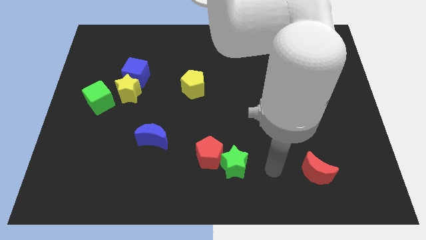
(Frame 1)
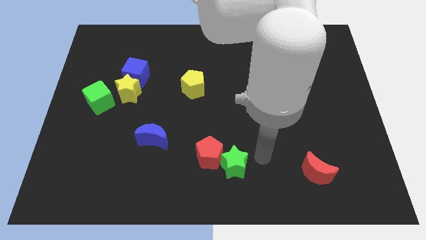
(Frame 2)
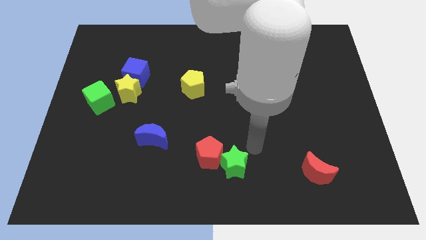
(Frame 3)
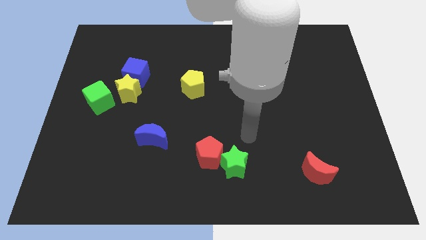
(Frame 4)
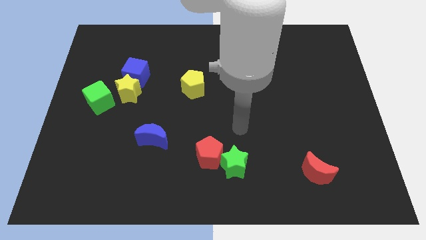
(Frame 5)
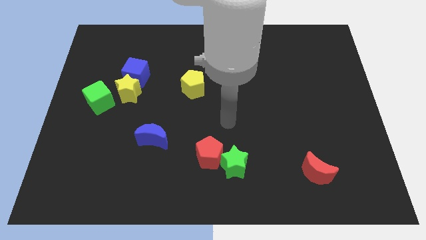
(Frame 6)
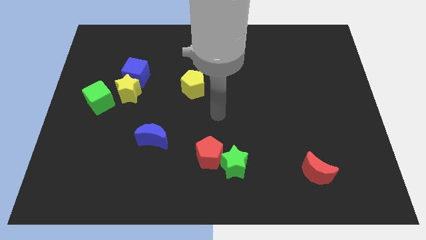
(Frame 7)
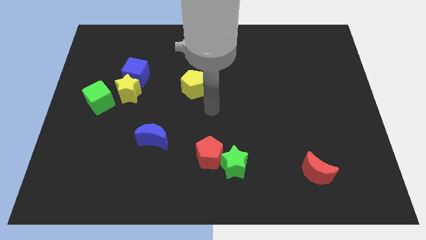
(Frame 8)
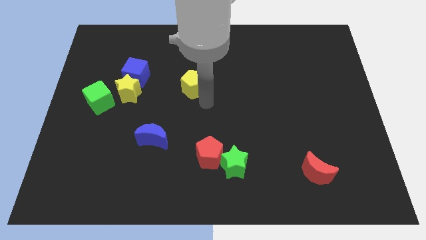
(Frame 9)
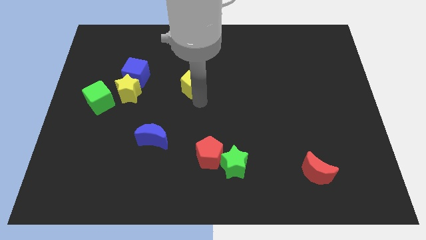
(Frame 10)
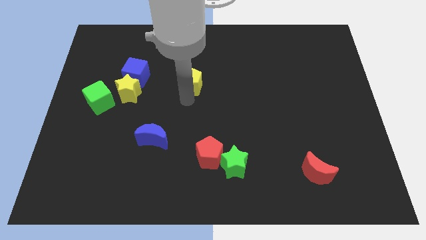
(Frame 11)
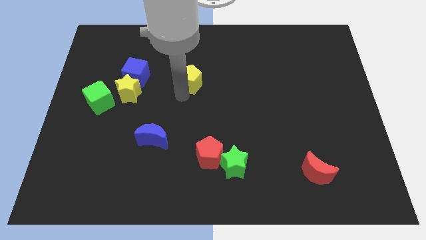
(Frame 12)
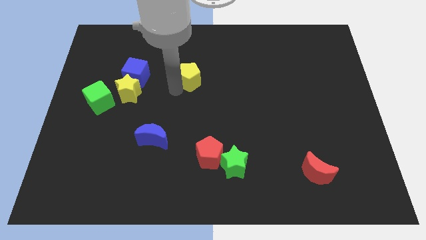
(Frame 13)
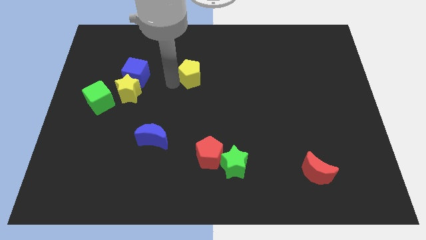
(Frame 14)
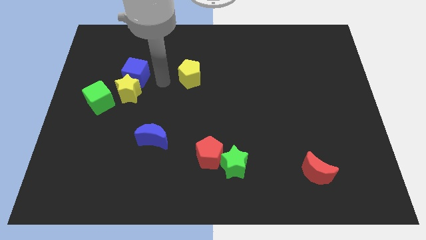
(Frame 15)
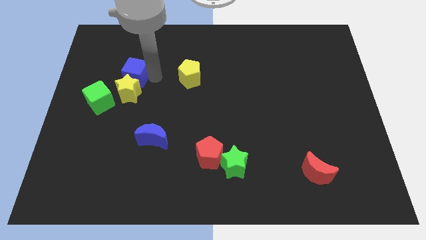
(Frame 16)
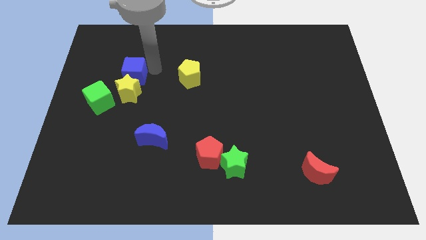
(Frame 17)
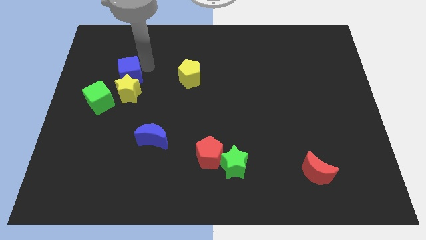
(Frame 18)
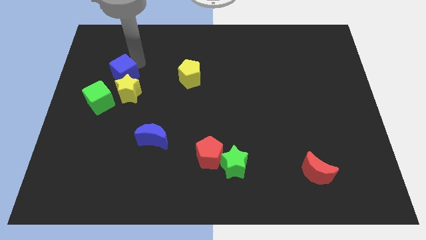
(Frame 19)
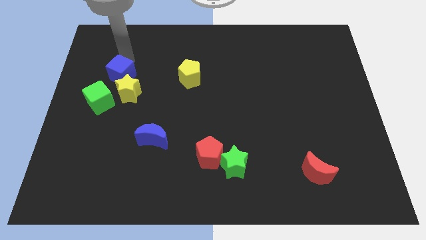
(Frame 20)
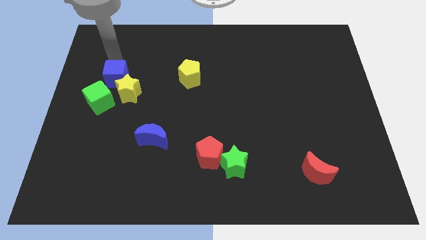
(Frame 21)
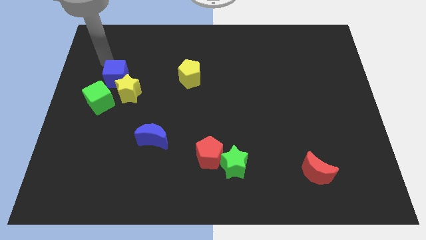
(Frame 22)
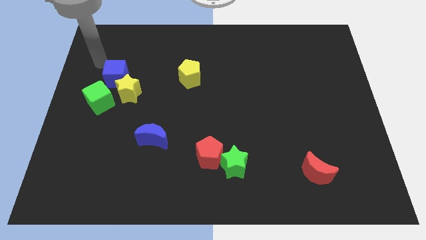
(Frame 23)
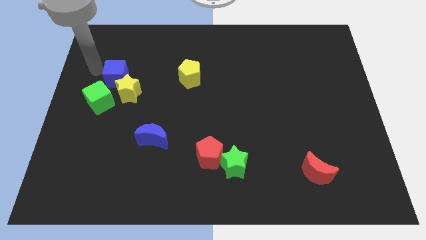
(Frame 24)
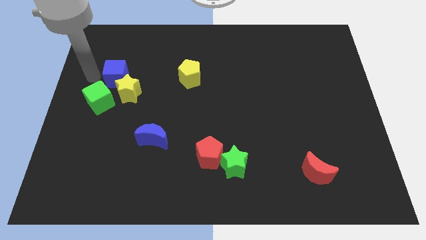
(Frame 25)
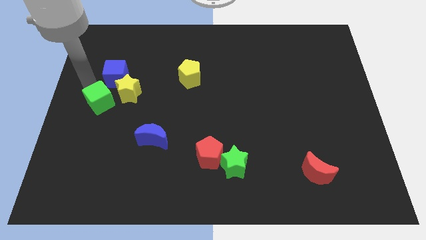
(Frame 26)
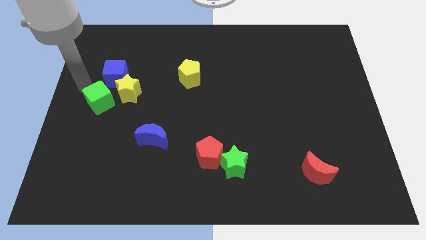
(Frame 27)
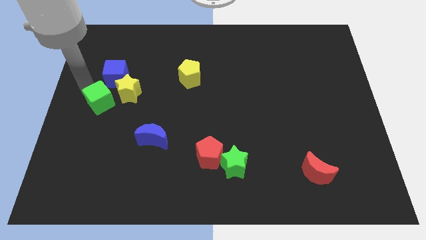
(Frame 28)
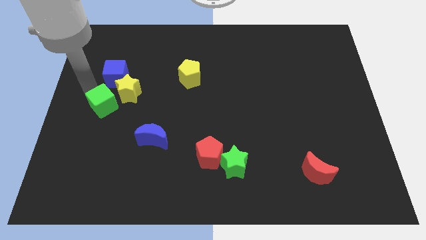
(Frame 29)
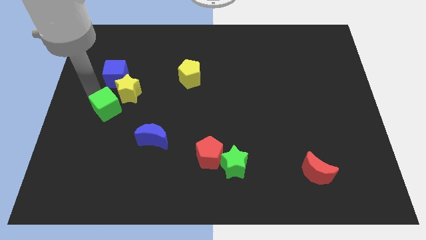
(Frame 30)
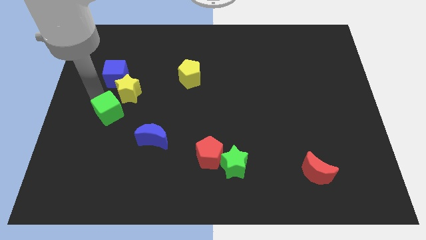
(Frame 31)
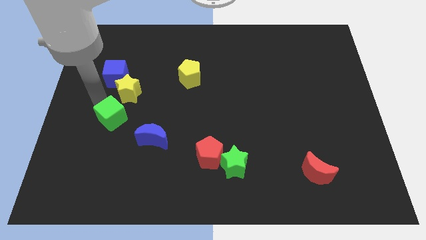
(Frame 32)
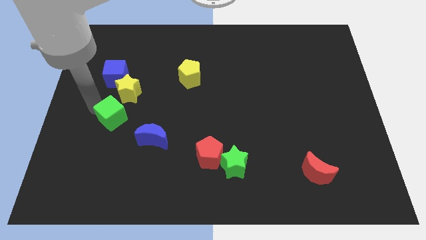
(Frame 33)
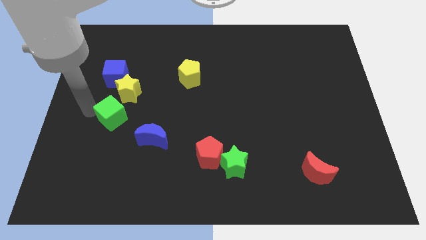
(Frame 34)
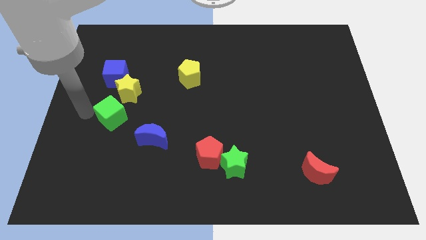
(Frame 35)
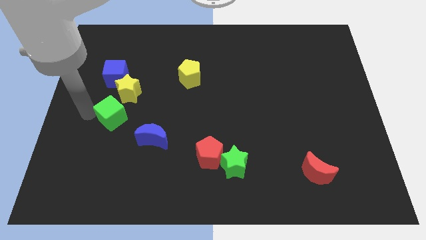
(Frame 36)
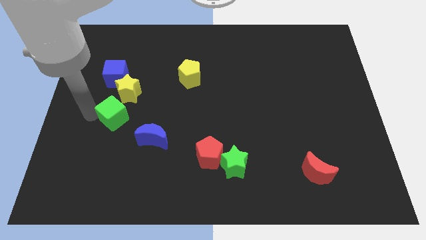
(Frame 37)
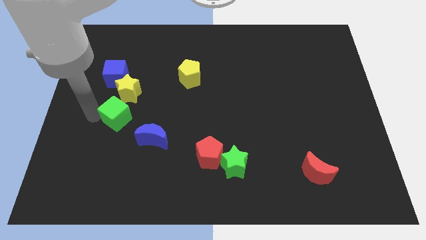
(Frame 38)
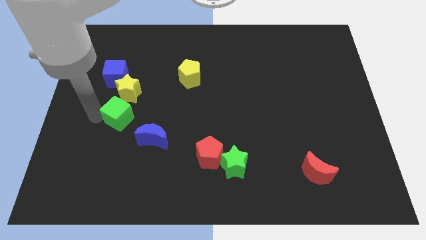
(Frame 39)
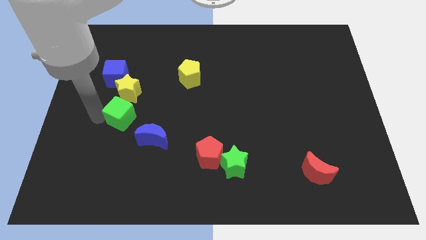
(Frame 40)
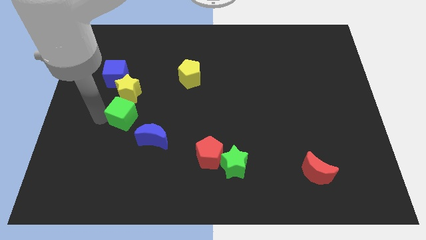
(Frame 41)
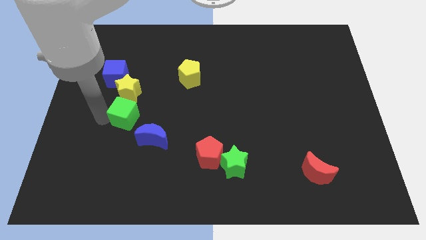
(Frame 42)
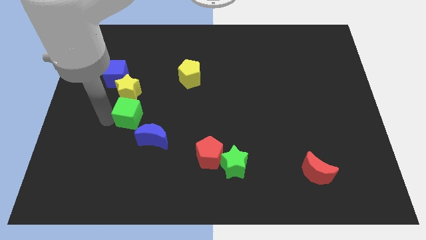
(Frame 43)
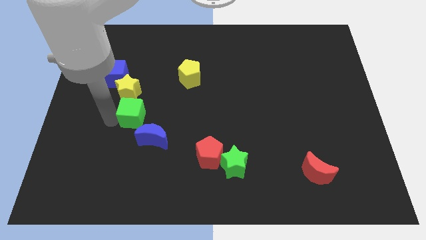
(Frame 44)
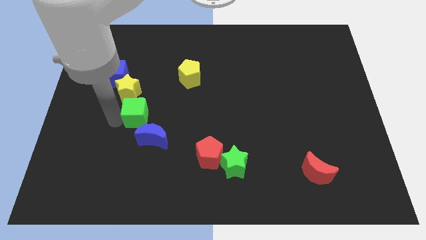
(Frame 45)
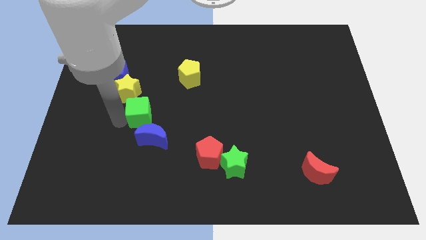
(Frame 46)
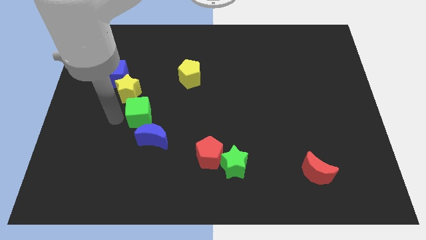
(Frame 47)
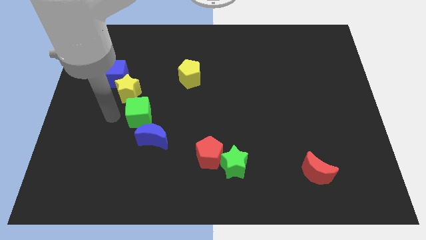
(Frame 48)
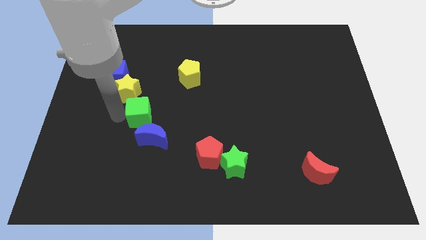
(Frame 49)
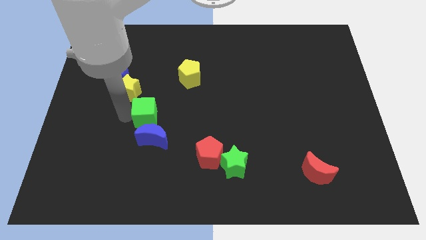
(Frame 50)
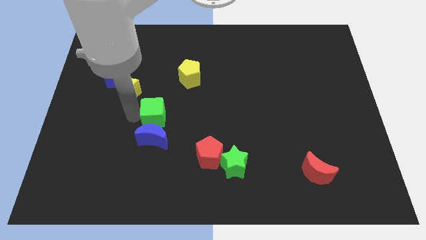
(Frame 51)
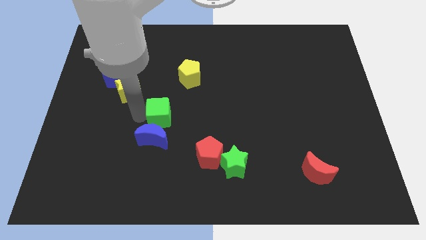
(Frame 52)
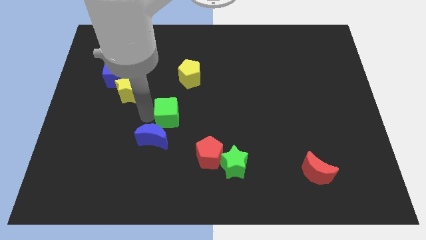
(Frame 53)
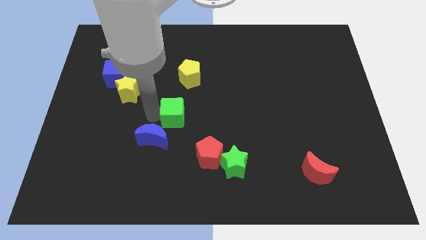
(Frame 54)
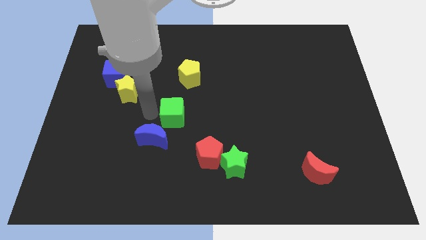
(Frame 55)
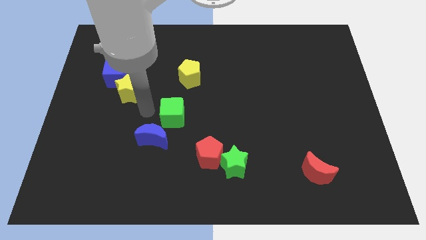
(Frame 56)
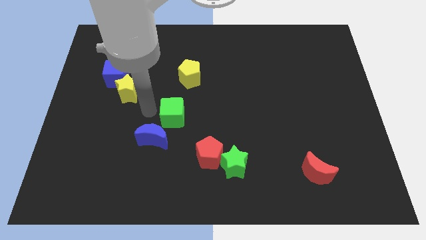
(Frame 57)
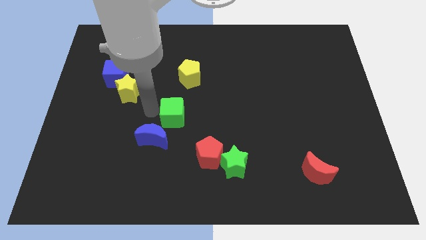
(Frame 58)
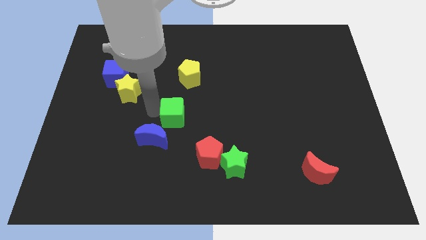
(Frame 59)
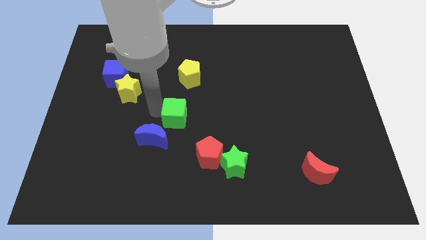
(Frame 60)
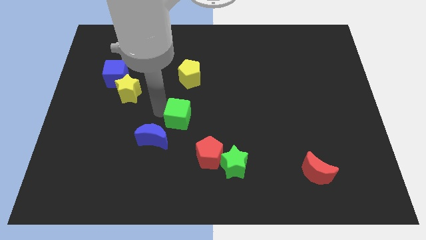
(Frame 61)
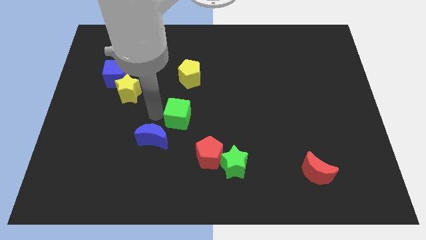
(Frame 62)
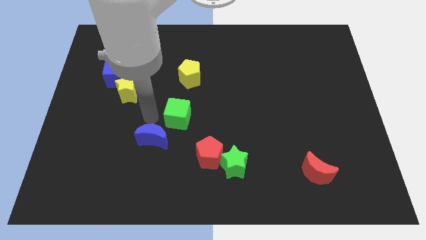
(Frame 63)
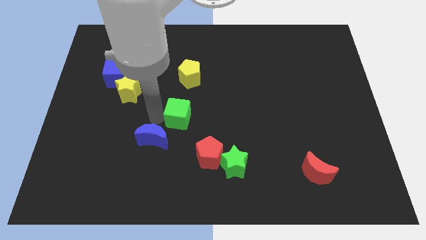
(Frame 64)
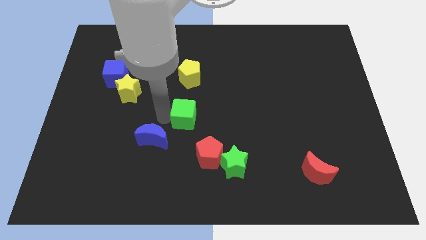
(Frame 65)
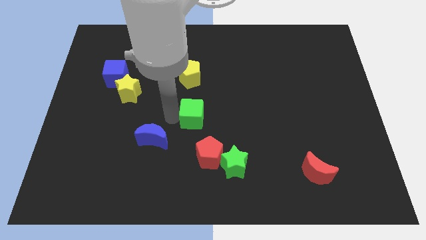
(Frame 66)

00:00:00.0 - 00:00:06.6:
slide the green cube to the top of the red pentagon
